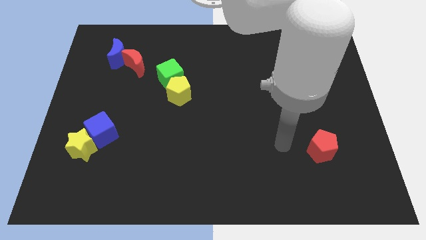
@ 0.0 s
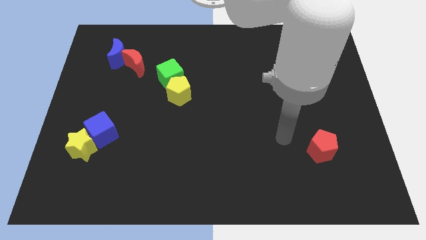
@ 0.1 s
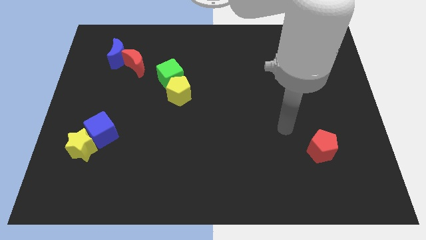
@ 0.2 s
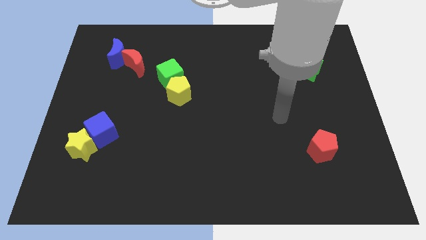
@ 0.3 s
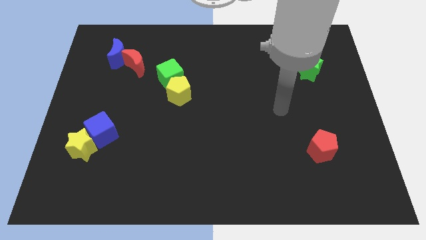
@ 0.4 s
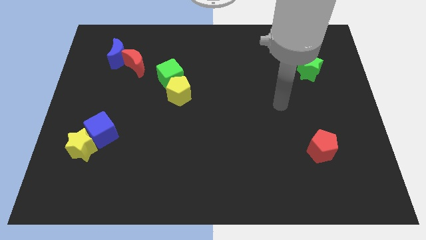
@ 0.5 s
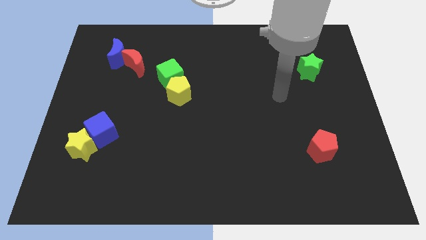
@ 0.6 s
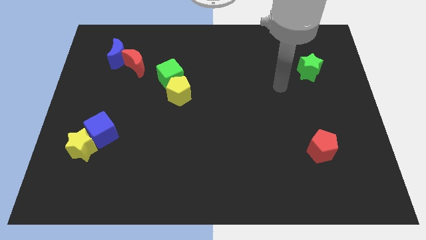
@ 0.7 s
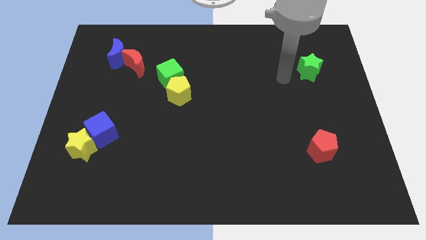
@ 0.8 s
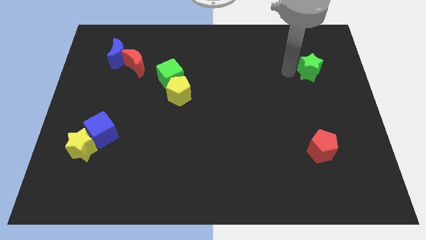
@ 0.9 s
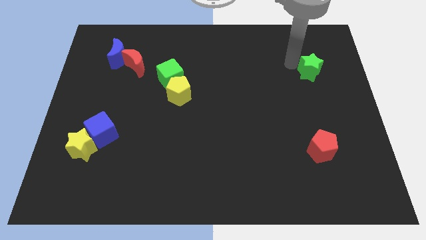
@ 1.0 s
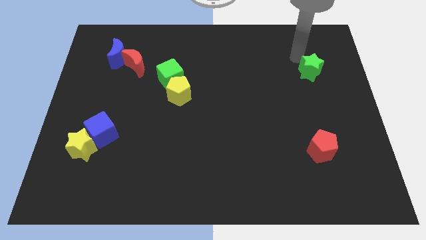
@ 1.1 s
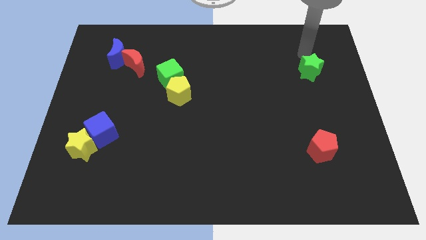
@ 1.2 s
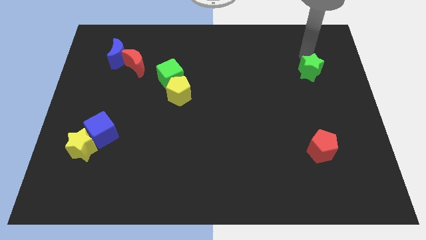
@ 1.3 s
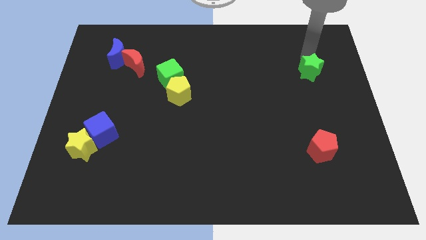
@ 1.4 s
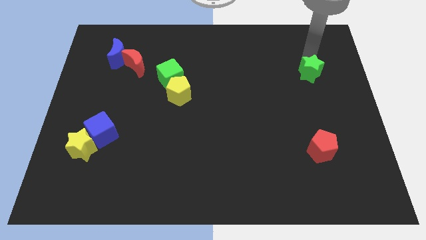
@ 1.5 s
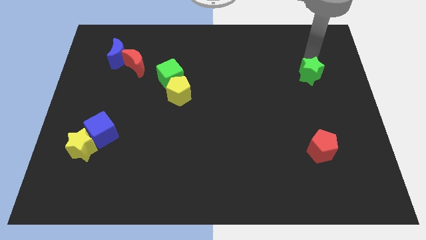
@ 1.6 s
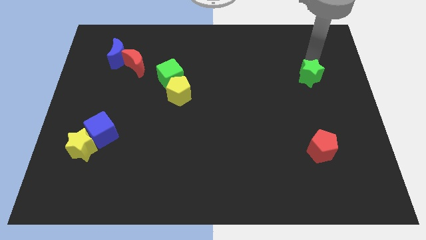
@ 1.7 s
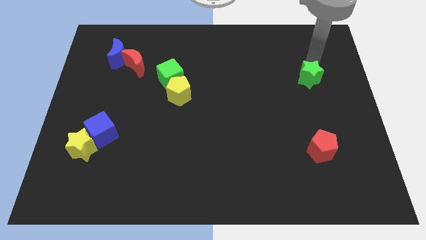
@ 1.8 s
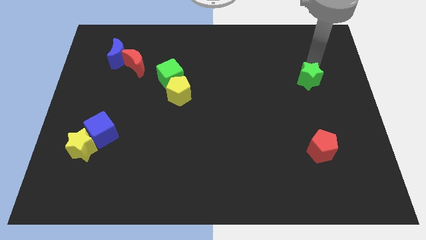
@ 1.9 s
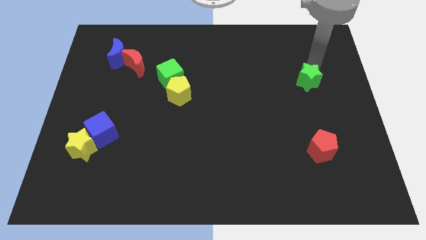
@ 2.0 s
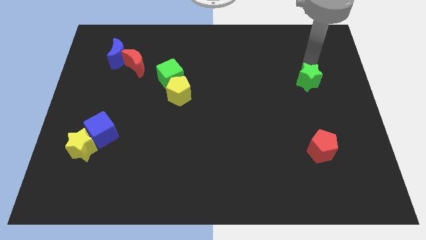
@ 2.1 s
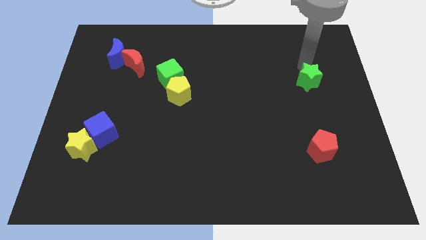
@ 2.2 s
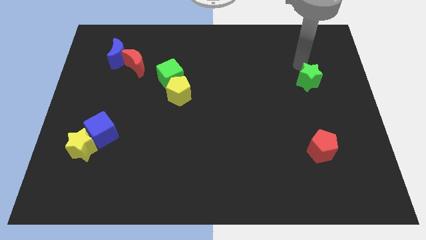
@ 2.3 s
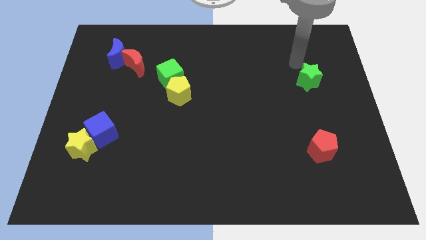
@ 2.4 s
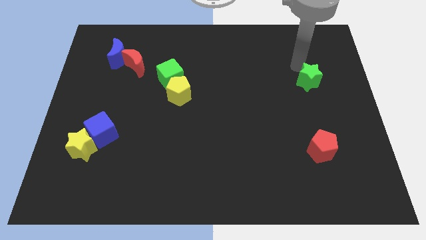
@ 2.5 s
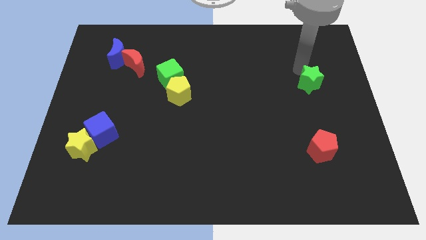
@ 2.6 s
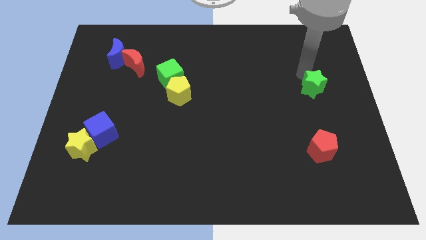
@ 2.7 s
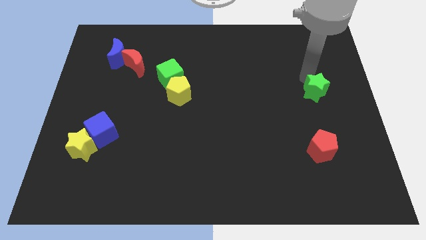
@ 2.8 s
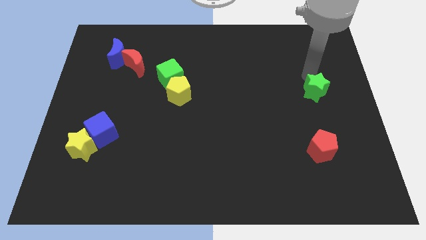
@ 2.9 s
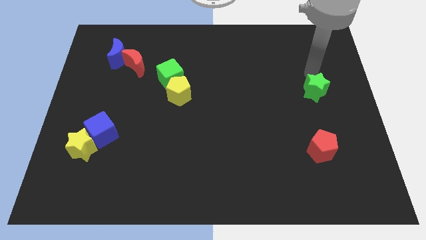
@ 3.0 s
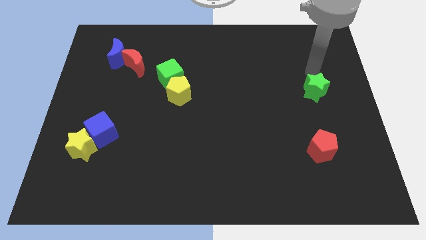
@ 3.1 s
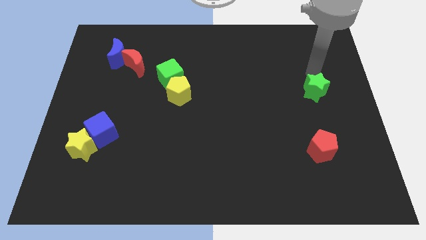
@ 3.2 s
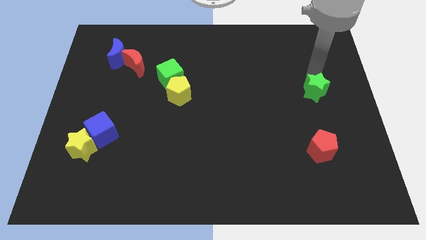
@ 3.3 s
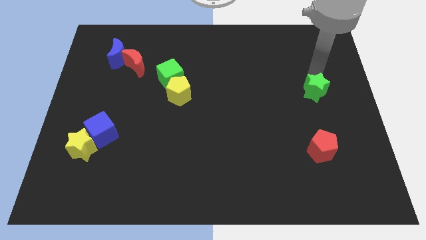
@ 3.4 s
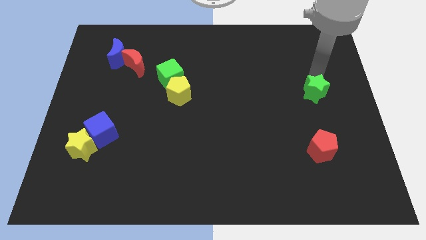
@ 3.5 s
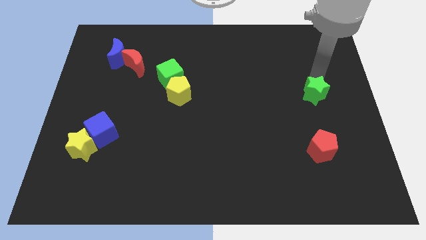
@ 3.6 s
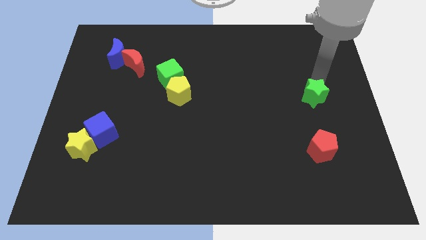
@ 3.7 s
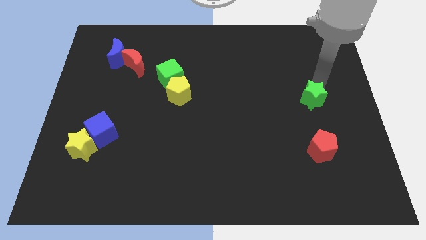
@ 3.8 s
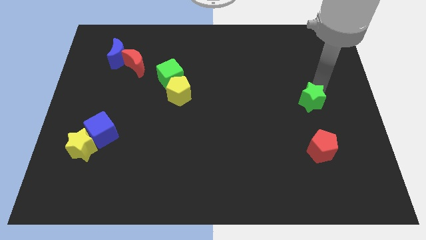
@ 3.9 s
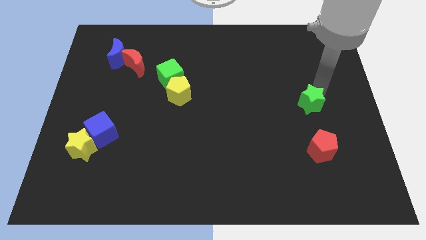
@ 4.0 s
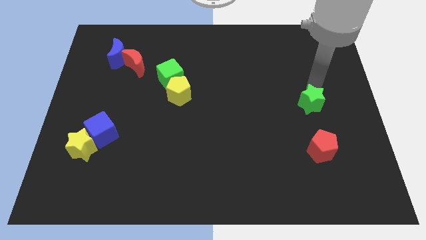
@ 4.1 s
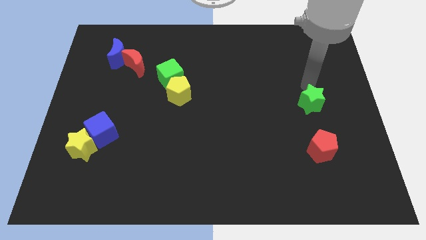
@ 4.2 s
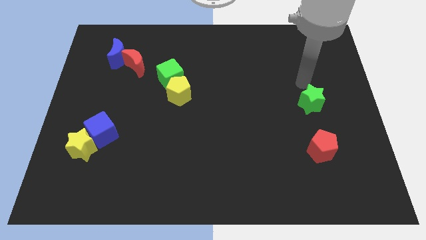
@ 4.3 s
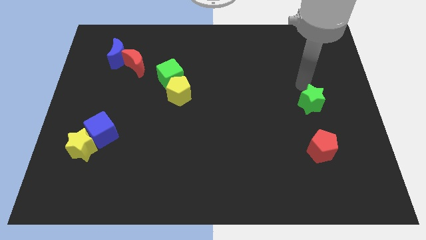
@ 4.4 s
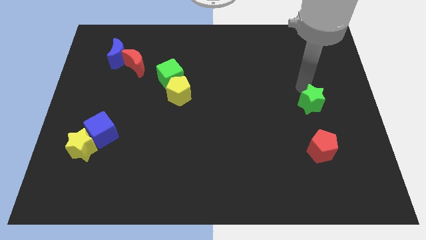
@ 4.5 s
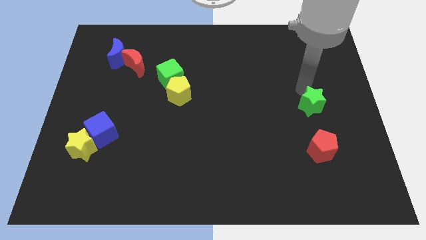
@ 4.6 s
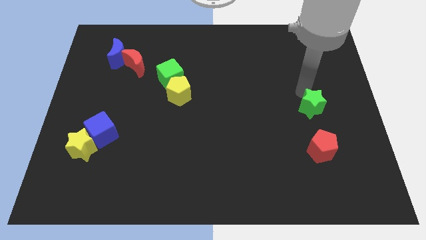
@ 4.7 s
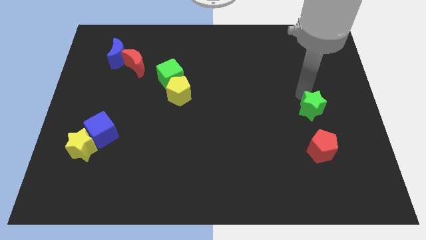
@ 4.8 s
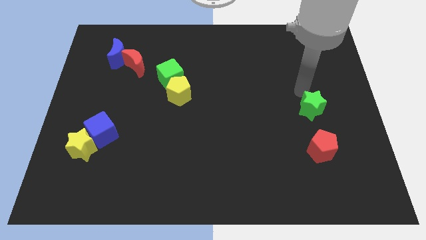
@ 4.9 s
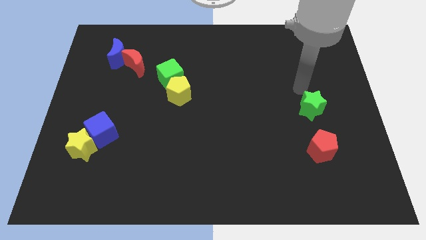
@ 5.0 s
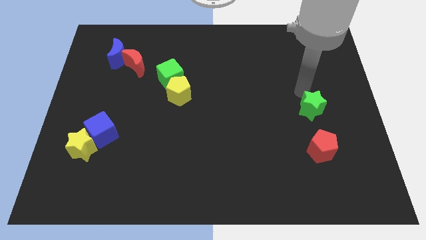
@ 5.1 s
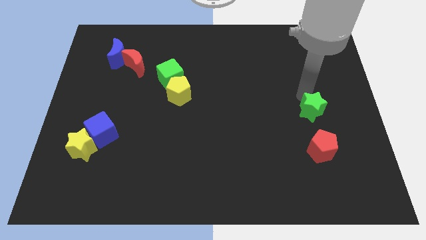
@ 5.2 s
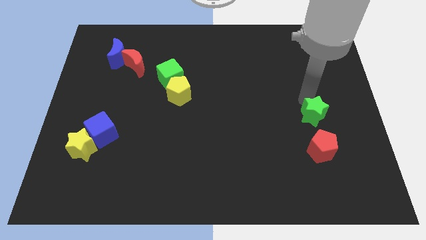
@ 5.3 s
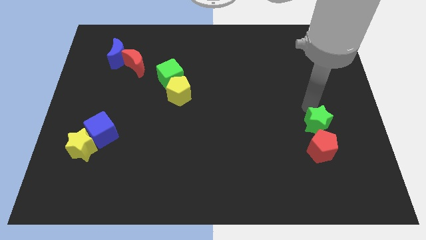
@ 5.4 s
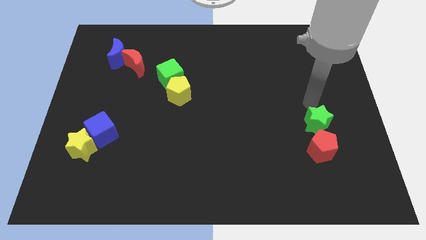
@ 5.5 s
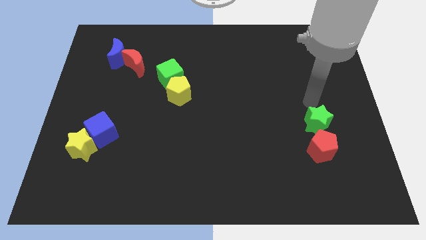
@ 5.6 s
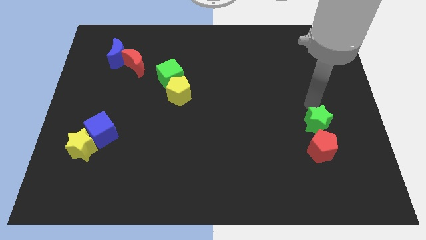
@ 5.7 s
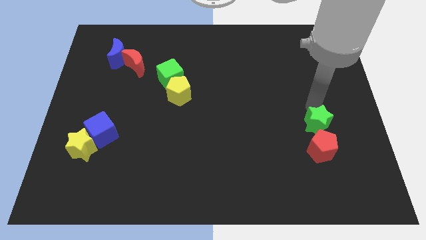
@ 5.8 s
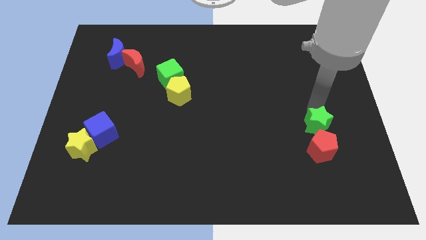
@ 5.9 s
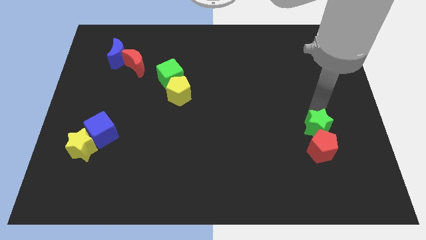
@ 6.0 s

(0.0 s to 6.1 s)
move the green star close to the red pentagon

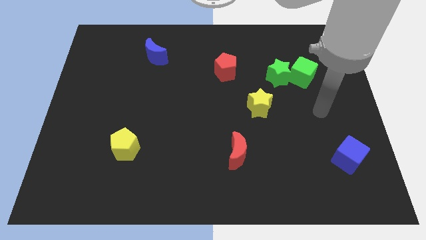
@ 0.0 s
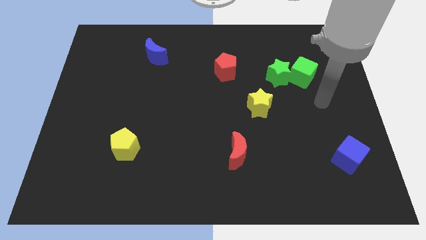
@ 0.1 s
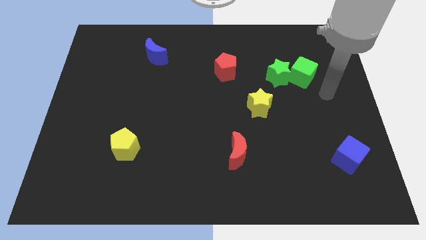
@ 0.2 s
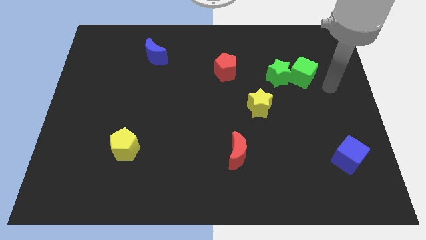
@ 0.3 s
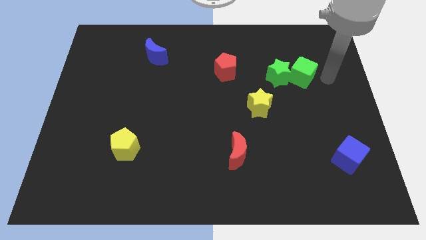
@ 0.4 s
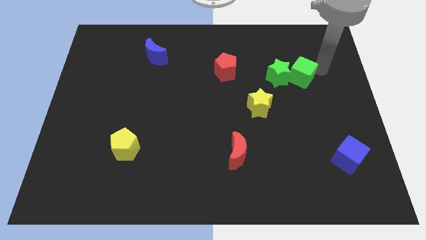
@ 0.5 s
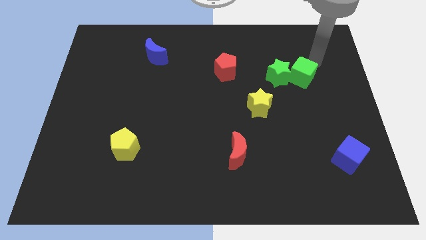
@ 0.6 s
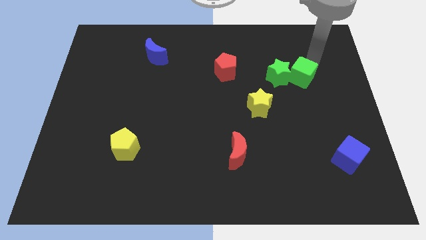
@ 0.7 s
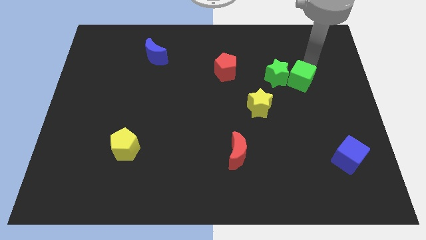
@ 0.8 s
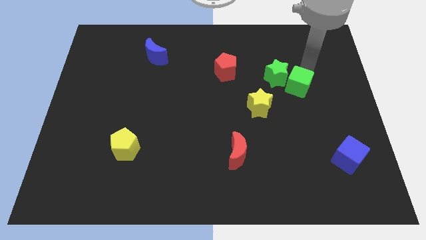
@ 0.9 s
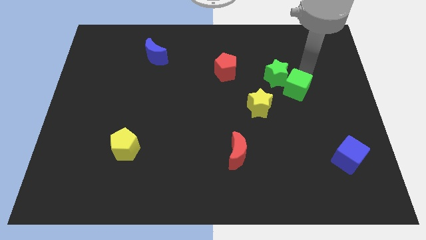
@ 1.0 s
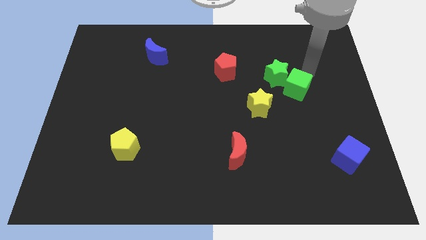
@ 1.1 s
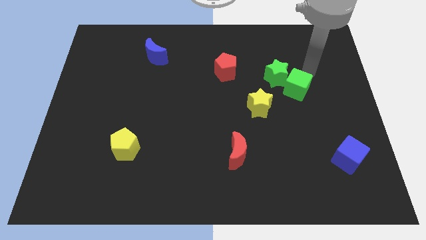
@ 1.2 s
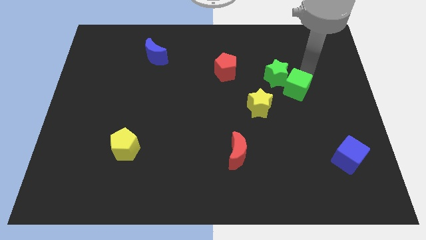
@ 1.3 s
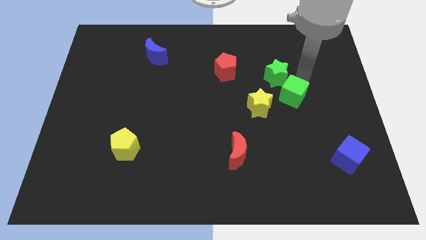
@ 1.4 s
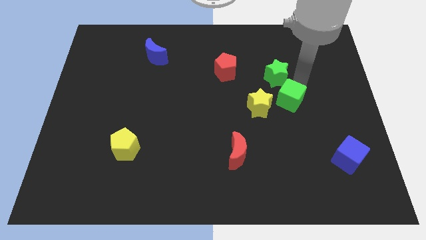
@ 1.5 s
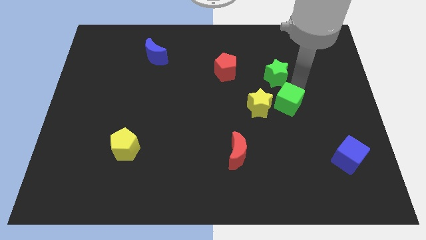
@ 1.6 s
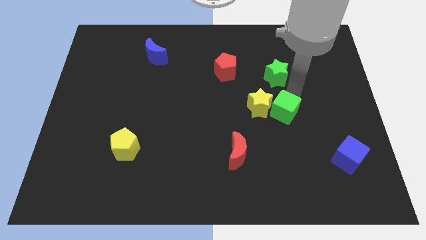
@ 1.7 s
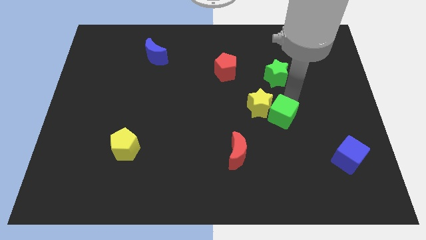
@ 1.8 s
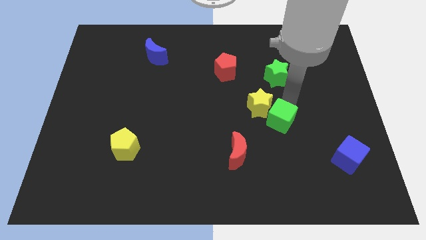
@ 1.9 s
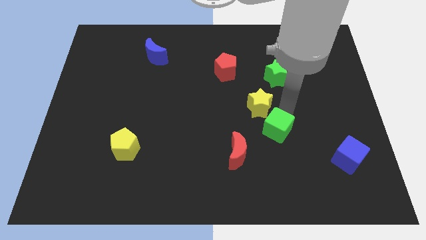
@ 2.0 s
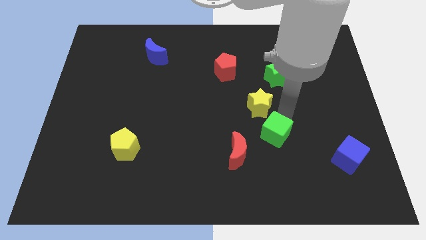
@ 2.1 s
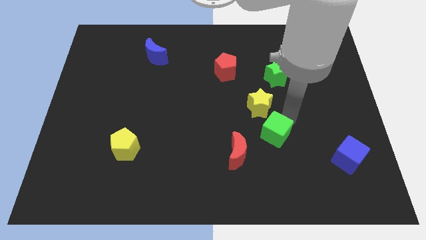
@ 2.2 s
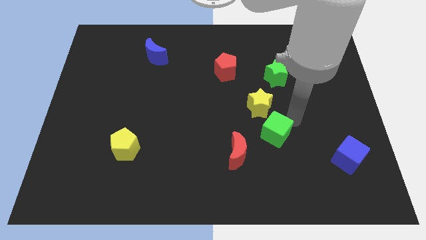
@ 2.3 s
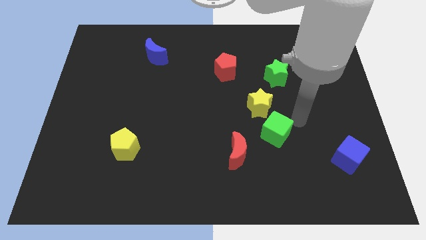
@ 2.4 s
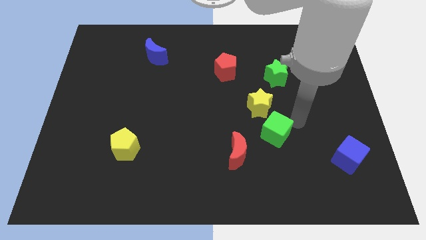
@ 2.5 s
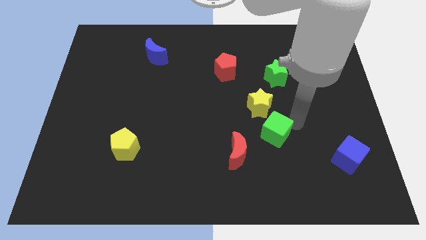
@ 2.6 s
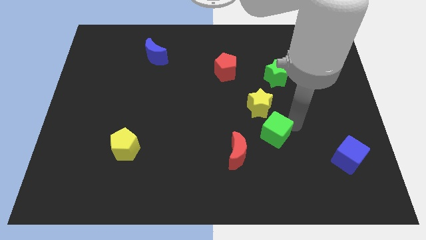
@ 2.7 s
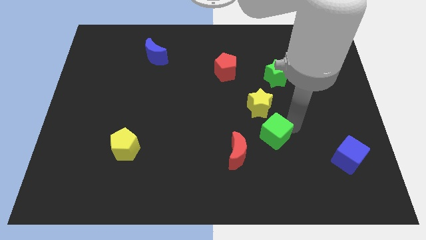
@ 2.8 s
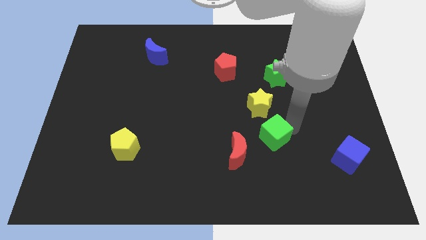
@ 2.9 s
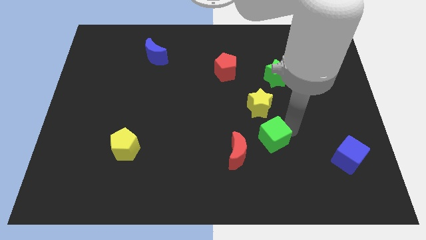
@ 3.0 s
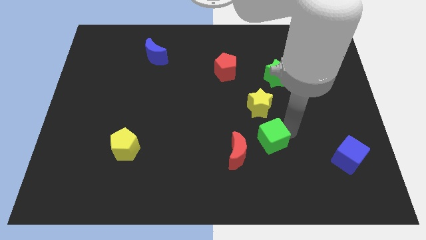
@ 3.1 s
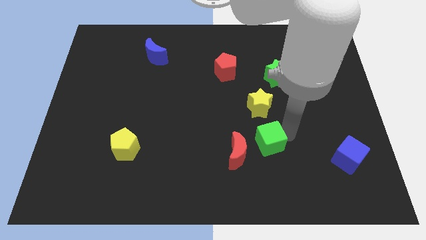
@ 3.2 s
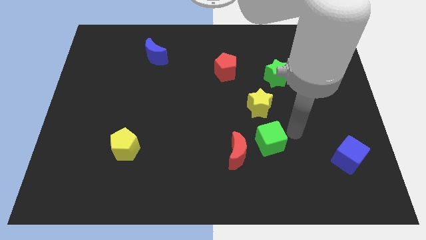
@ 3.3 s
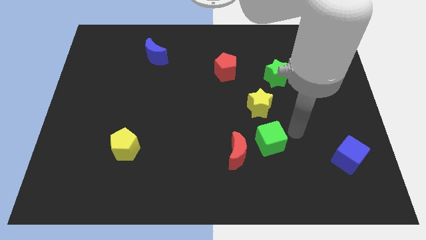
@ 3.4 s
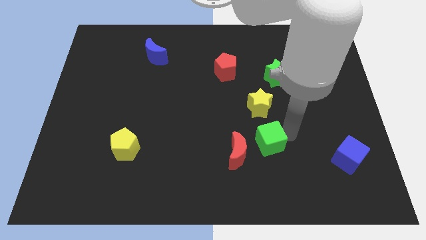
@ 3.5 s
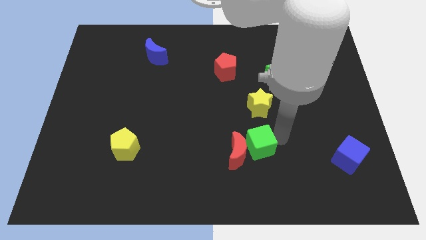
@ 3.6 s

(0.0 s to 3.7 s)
slide the green cube next to the red moon
